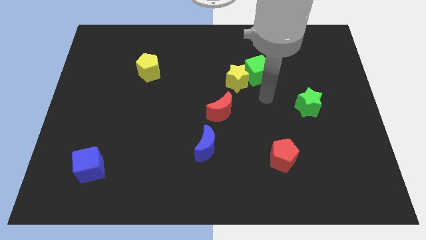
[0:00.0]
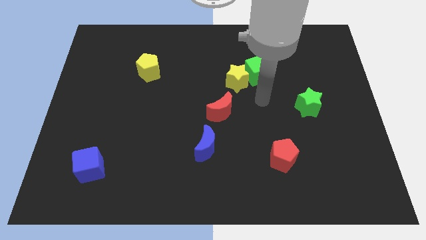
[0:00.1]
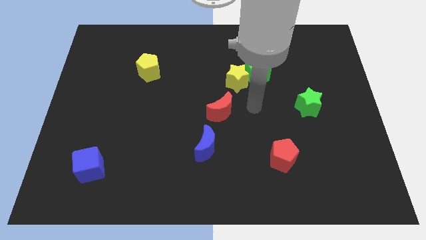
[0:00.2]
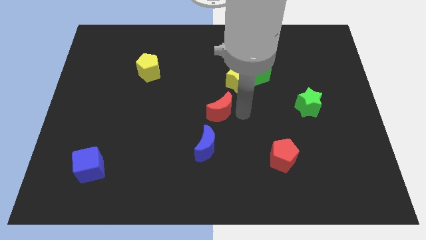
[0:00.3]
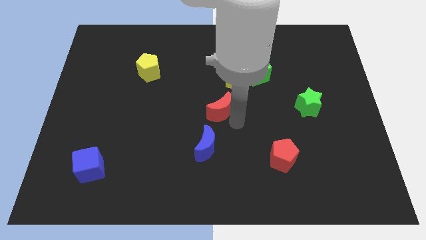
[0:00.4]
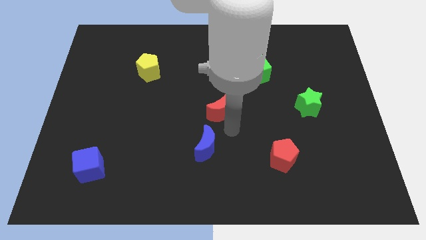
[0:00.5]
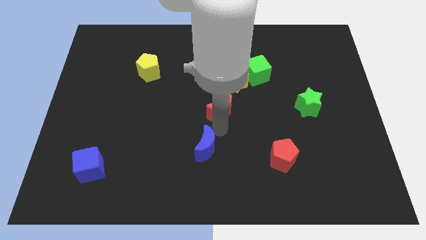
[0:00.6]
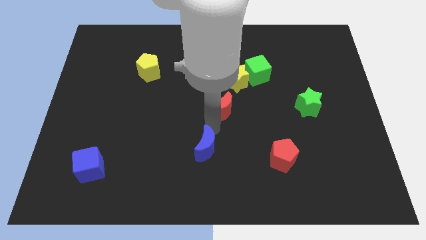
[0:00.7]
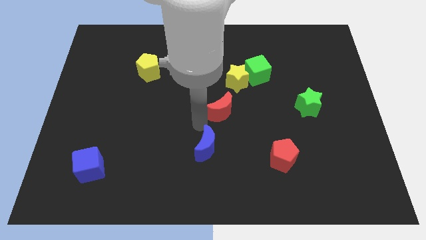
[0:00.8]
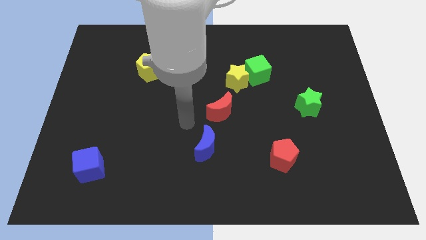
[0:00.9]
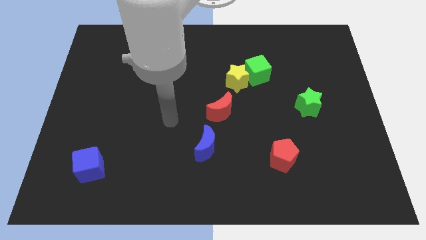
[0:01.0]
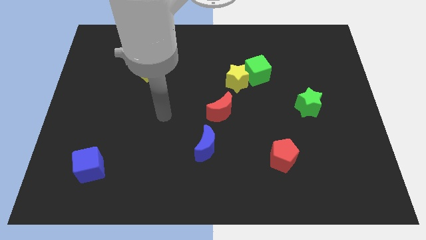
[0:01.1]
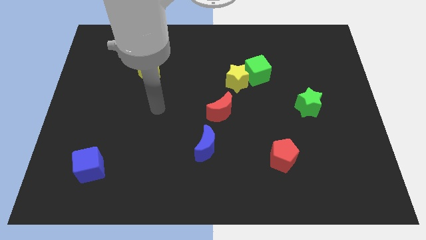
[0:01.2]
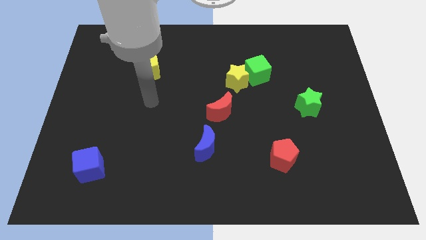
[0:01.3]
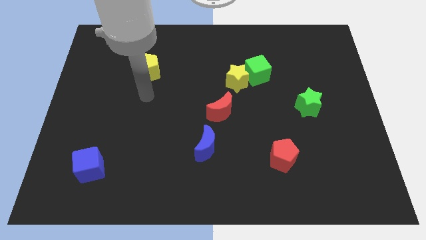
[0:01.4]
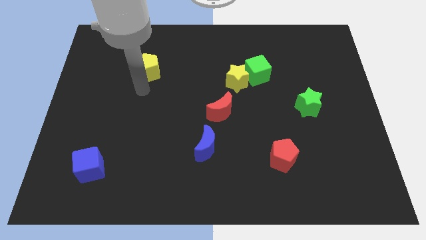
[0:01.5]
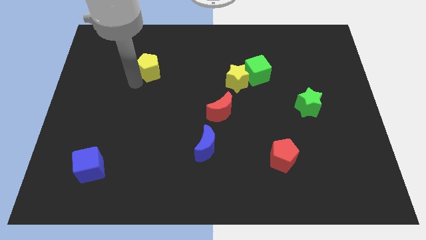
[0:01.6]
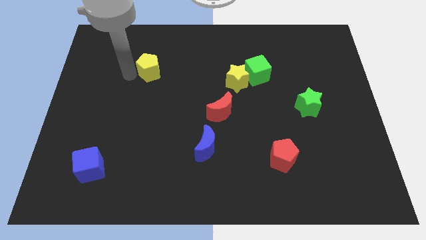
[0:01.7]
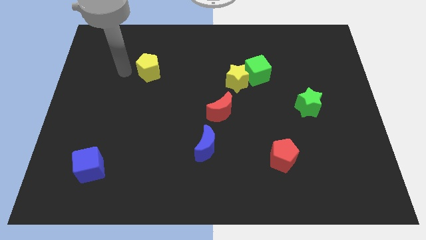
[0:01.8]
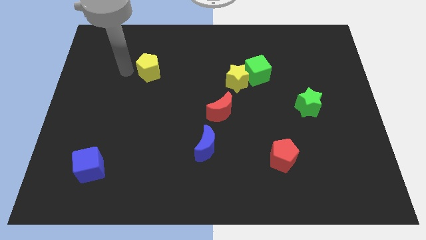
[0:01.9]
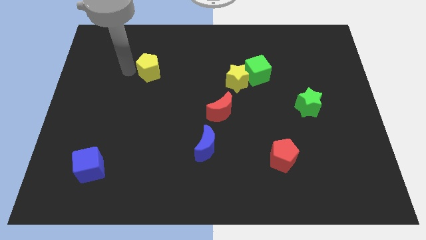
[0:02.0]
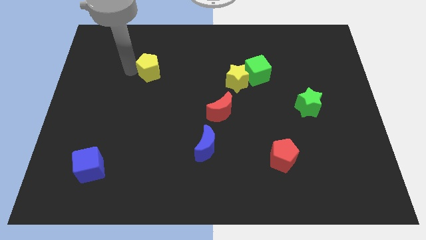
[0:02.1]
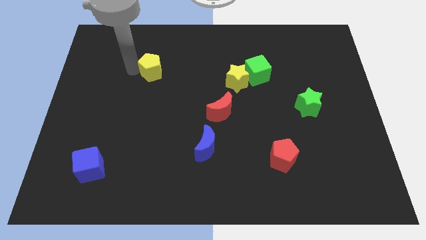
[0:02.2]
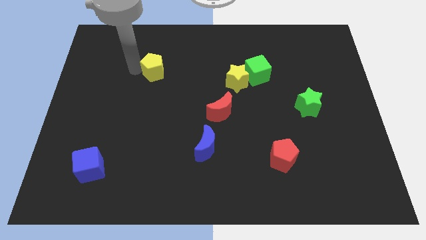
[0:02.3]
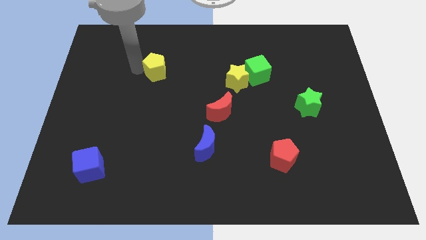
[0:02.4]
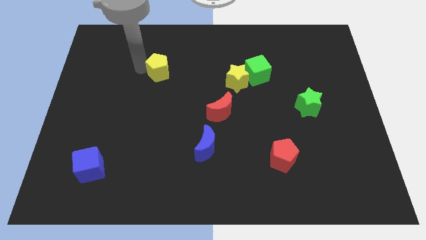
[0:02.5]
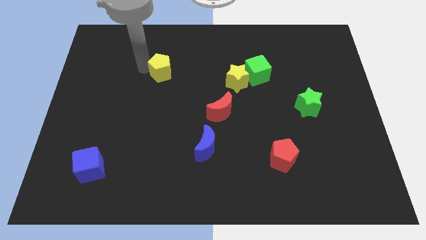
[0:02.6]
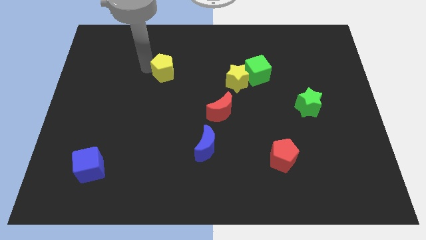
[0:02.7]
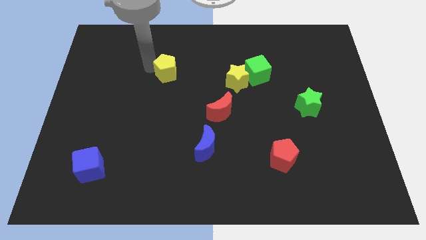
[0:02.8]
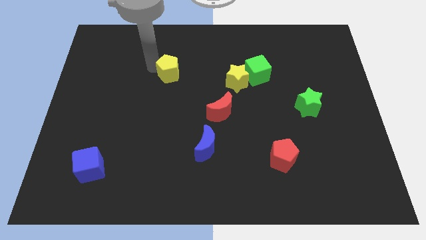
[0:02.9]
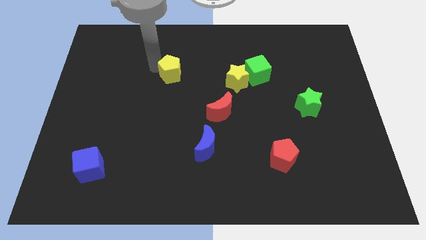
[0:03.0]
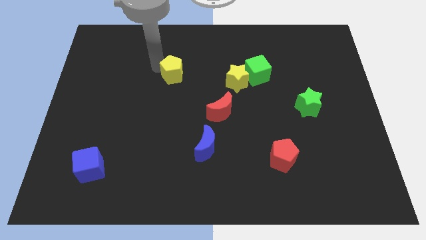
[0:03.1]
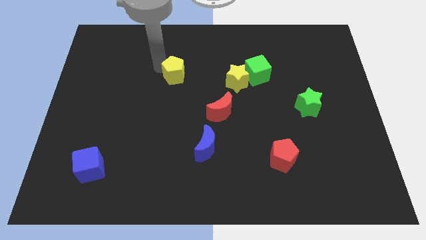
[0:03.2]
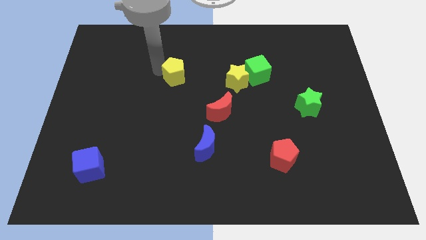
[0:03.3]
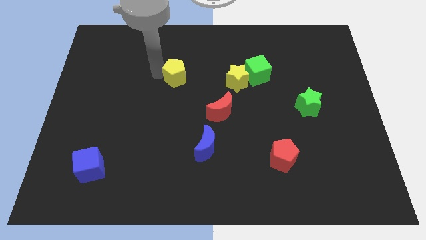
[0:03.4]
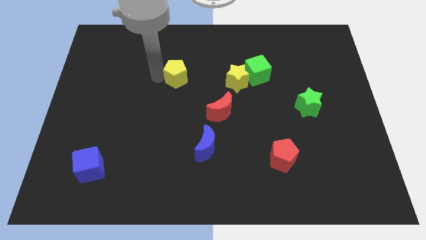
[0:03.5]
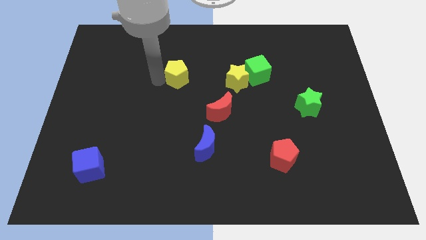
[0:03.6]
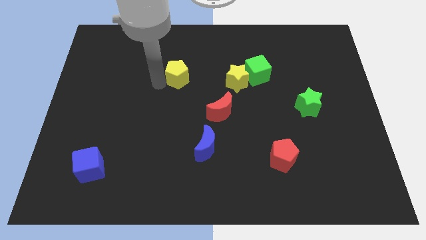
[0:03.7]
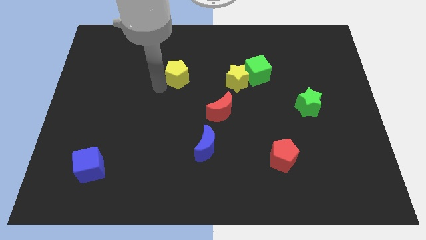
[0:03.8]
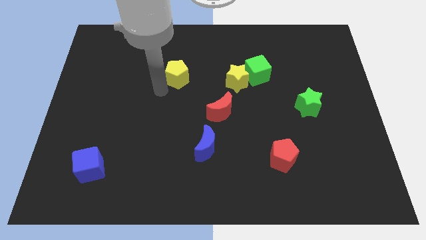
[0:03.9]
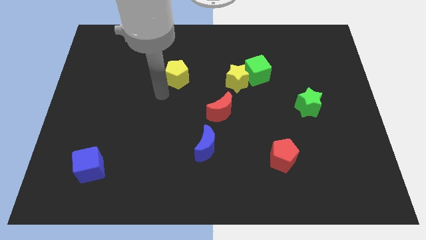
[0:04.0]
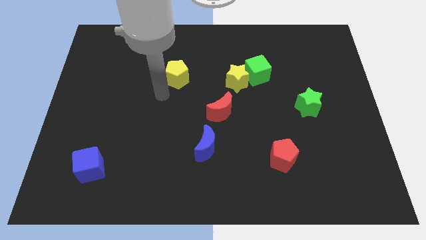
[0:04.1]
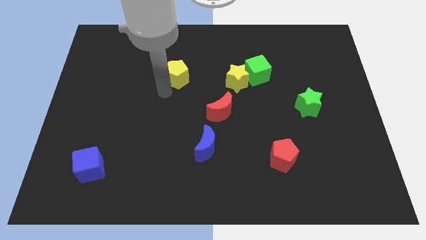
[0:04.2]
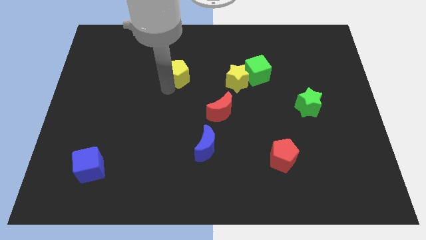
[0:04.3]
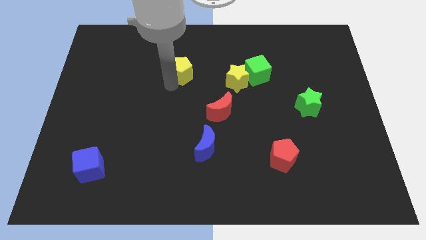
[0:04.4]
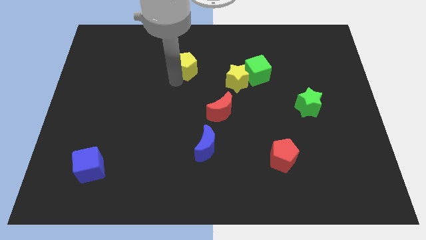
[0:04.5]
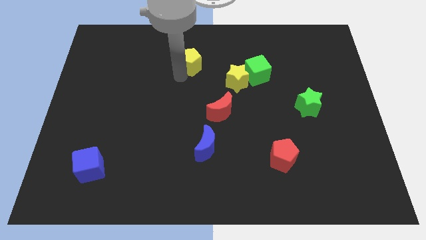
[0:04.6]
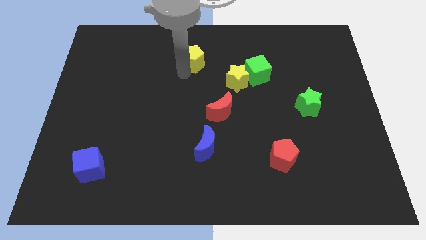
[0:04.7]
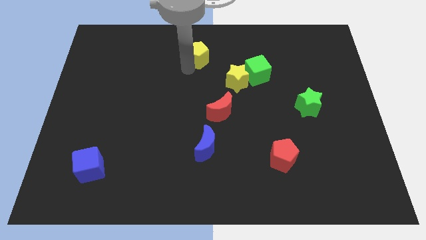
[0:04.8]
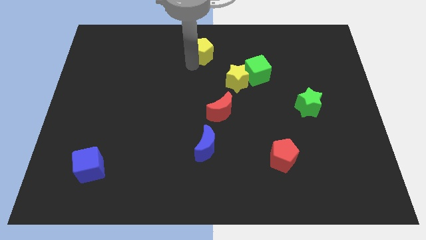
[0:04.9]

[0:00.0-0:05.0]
slide the yellow pentagon to the top

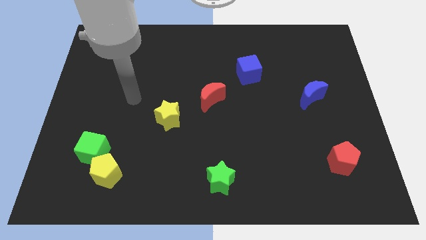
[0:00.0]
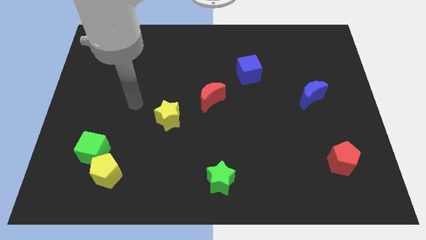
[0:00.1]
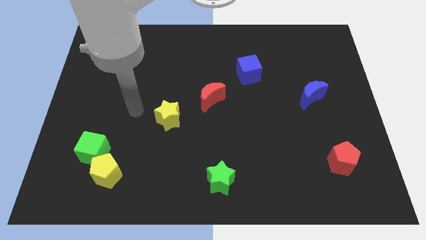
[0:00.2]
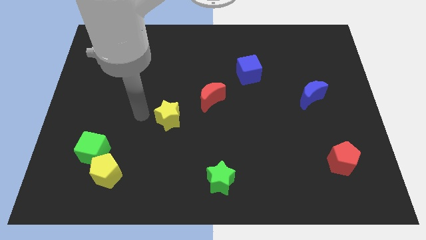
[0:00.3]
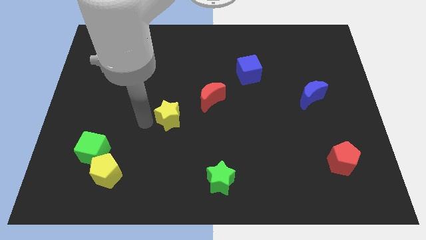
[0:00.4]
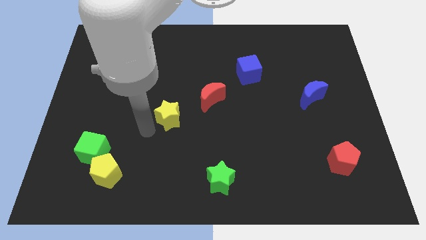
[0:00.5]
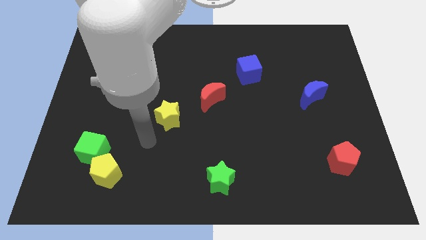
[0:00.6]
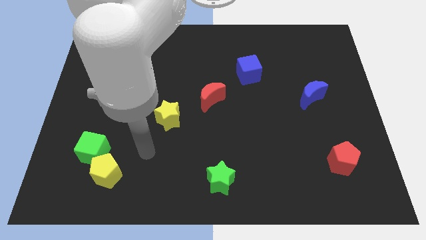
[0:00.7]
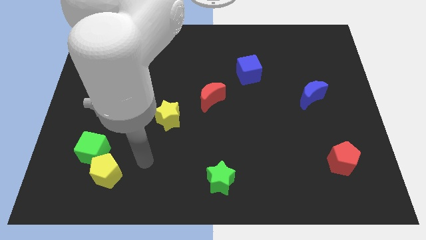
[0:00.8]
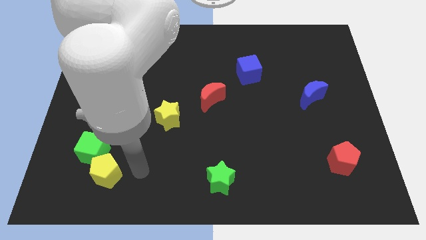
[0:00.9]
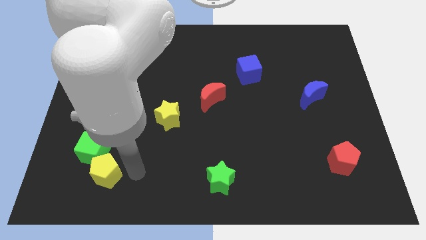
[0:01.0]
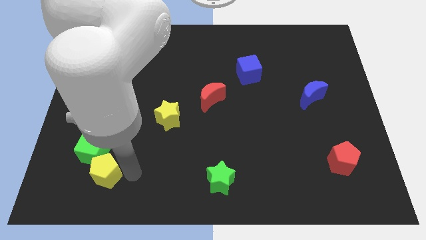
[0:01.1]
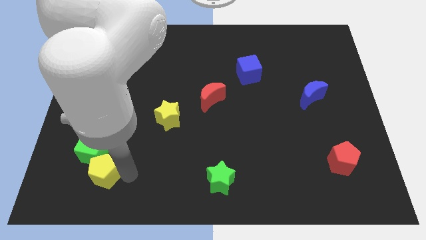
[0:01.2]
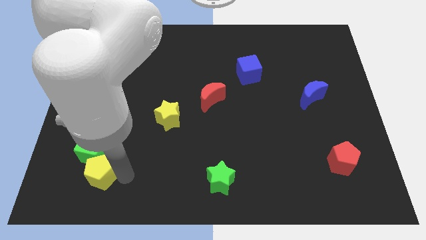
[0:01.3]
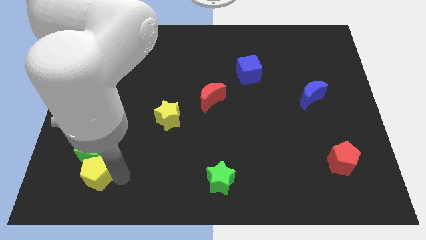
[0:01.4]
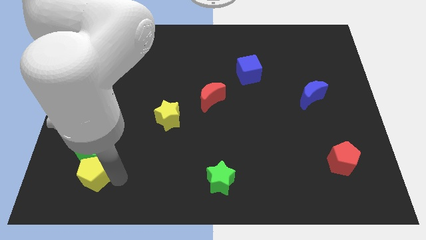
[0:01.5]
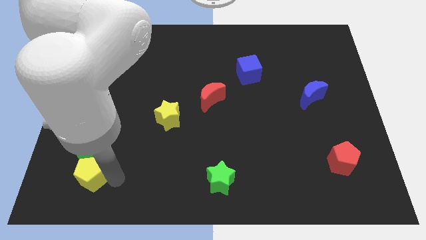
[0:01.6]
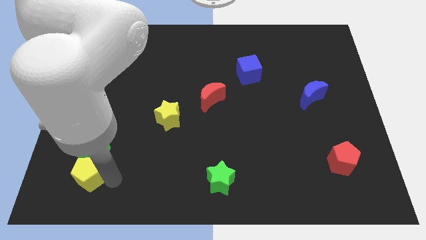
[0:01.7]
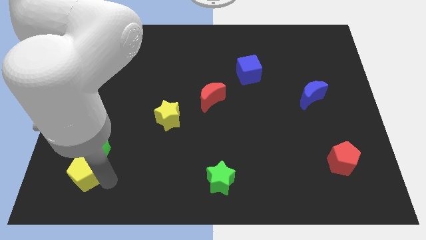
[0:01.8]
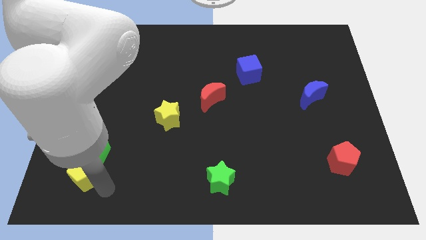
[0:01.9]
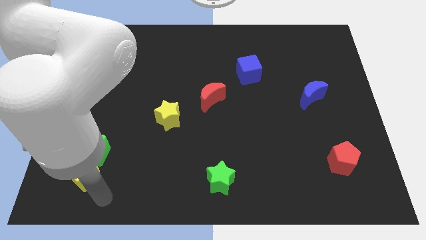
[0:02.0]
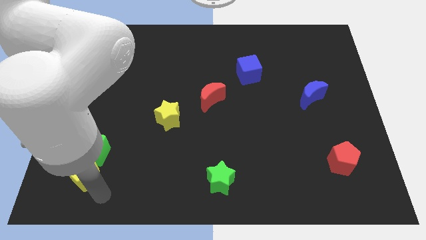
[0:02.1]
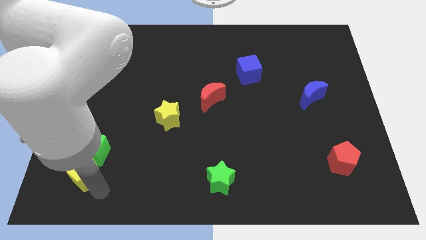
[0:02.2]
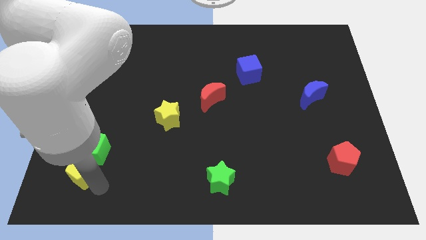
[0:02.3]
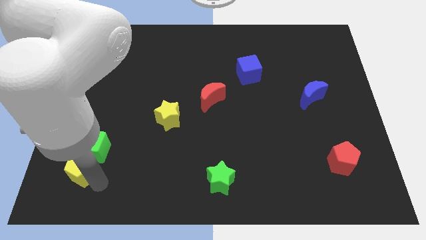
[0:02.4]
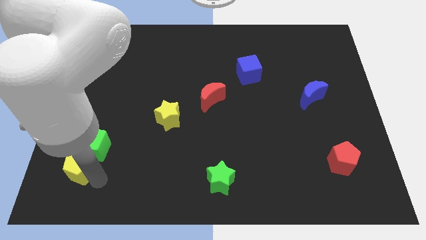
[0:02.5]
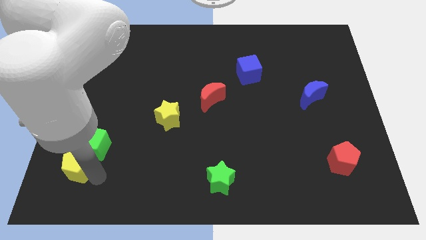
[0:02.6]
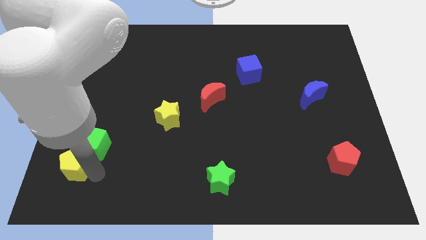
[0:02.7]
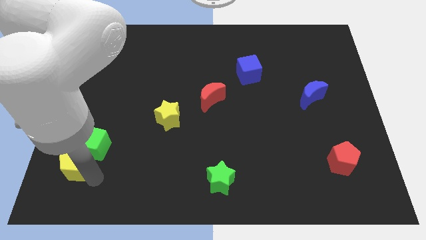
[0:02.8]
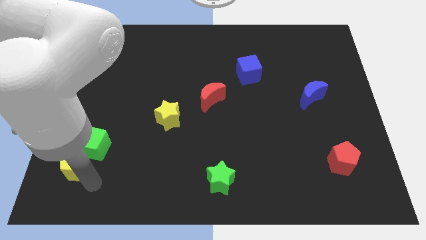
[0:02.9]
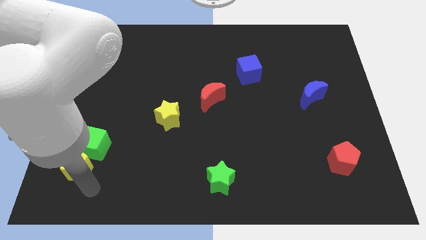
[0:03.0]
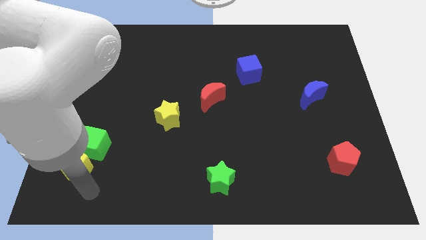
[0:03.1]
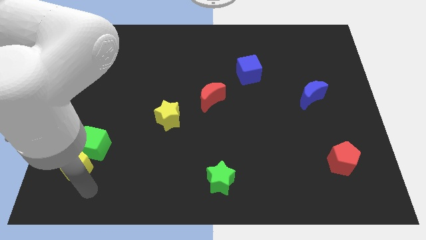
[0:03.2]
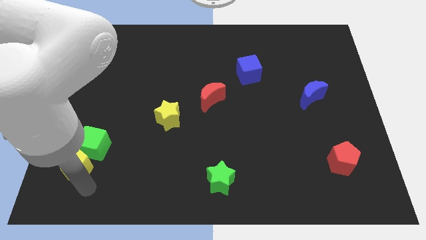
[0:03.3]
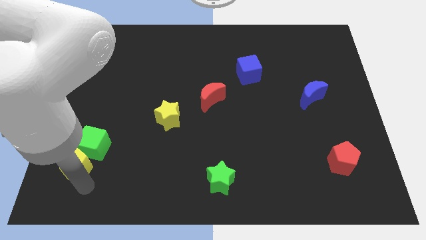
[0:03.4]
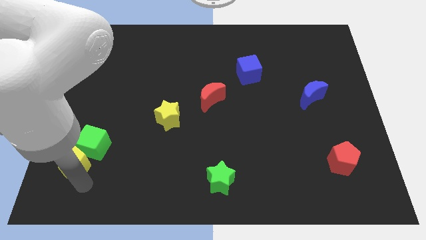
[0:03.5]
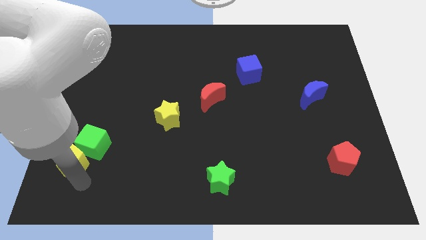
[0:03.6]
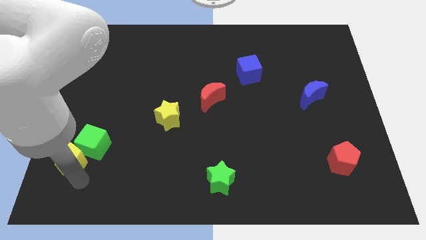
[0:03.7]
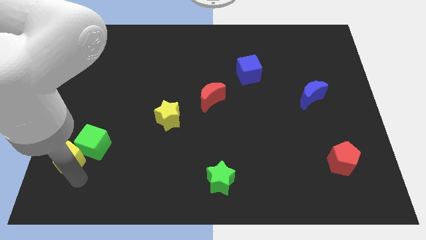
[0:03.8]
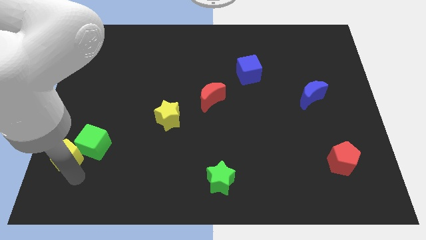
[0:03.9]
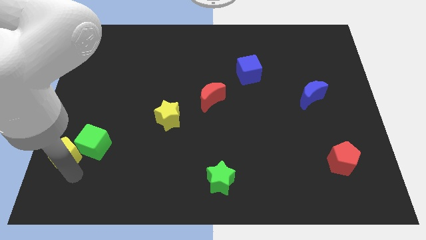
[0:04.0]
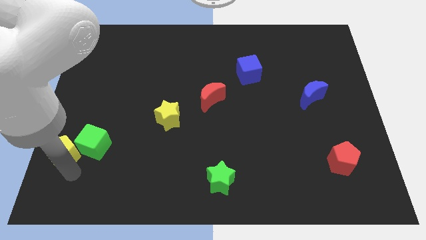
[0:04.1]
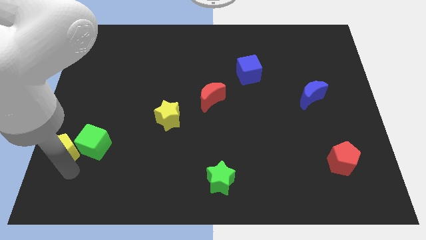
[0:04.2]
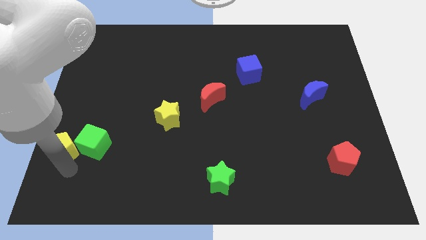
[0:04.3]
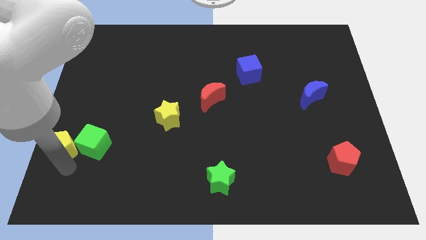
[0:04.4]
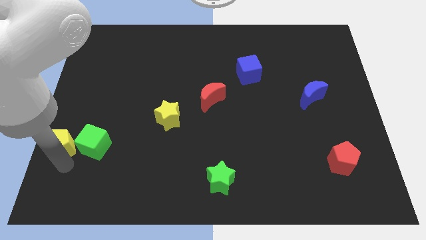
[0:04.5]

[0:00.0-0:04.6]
move the yellow pentagon to the left side of the board
